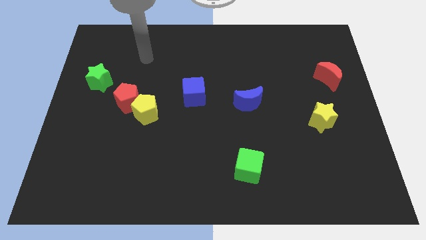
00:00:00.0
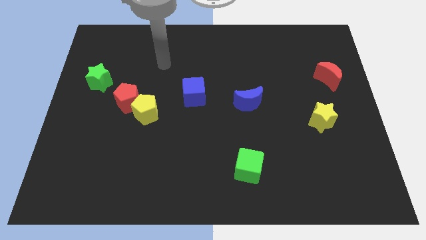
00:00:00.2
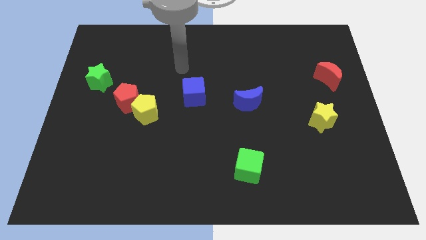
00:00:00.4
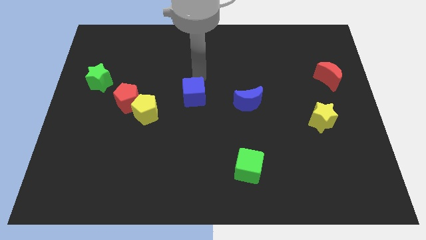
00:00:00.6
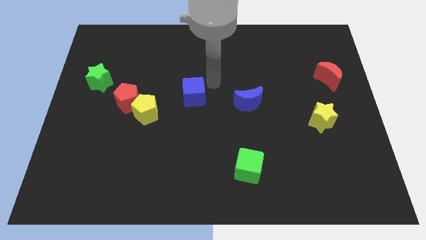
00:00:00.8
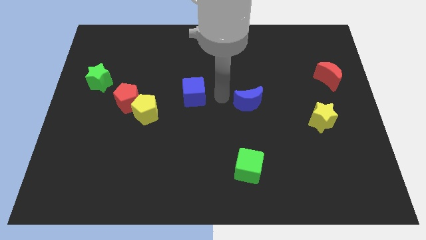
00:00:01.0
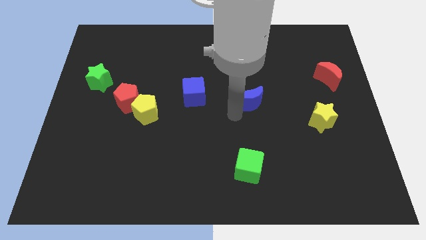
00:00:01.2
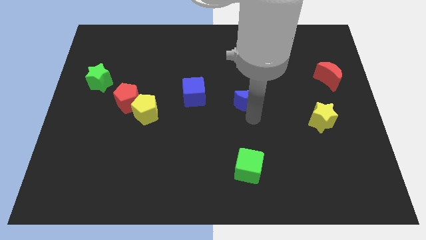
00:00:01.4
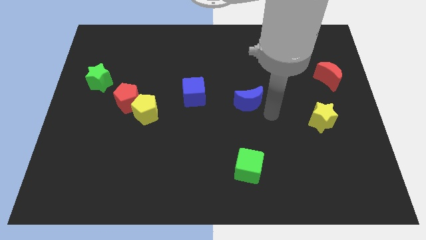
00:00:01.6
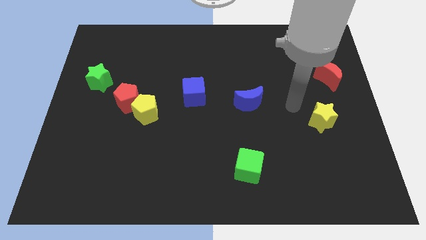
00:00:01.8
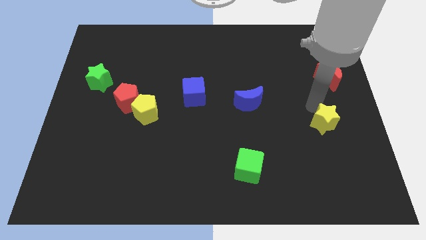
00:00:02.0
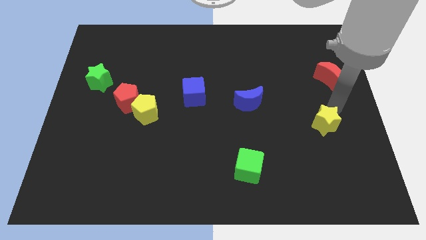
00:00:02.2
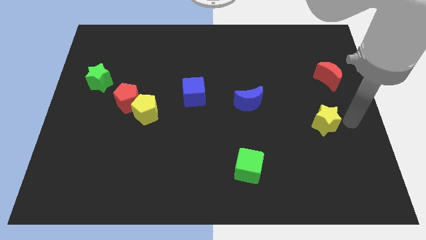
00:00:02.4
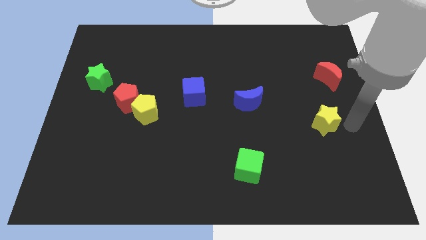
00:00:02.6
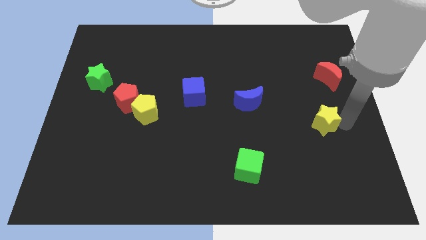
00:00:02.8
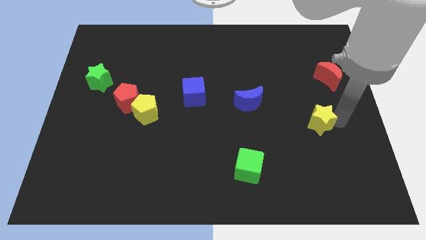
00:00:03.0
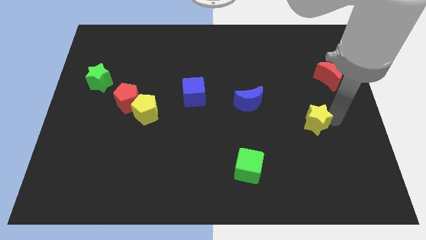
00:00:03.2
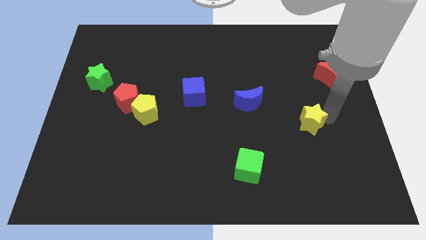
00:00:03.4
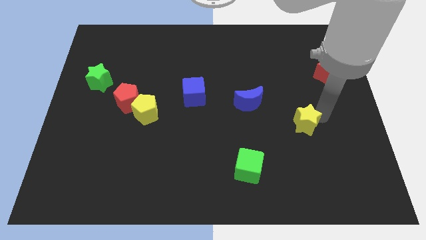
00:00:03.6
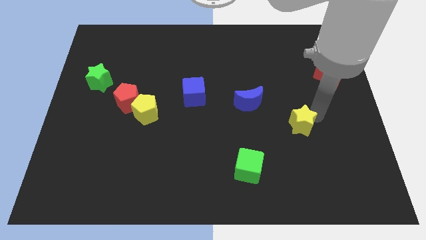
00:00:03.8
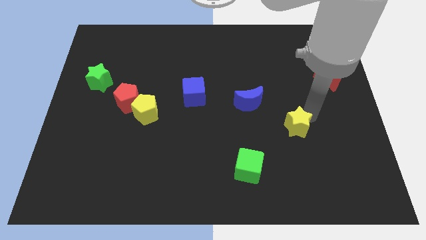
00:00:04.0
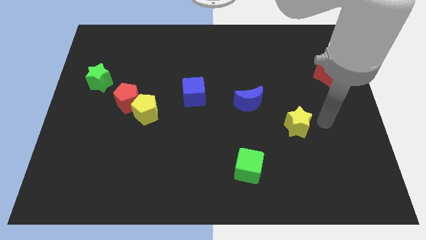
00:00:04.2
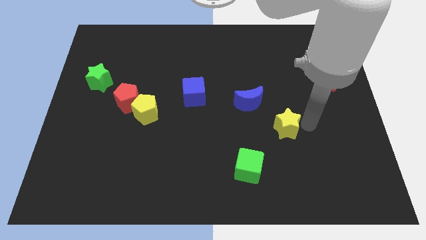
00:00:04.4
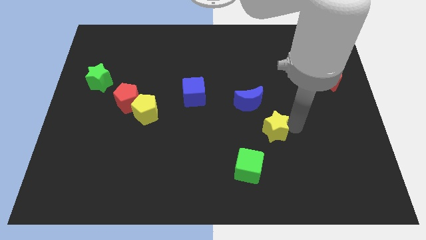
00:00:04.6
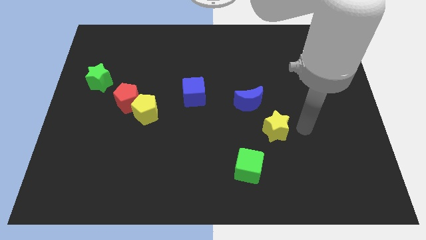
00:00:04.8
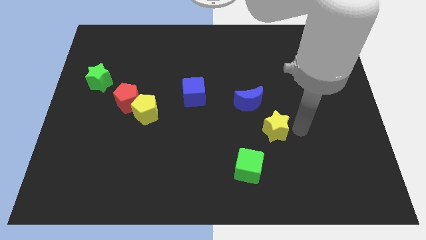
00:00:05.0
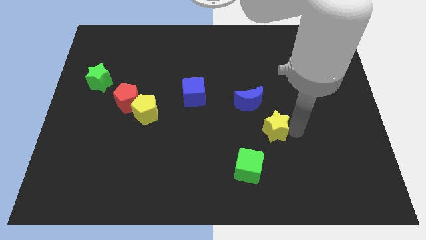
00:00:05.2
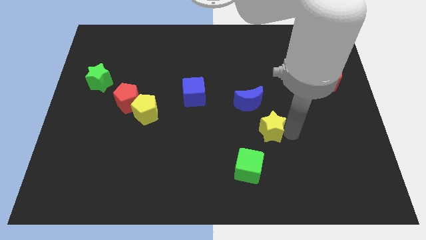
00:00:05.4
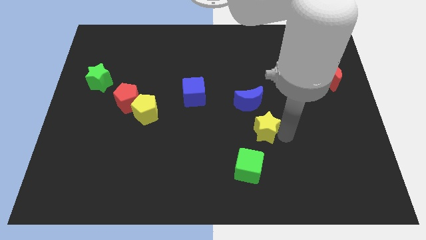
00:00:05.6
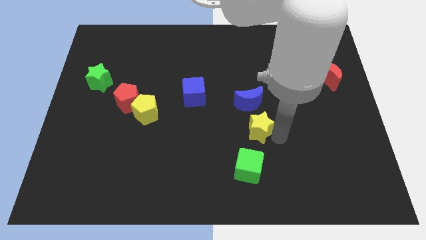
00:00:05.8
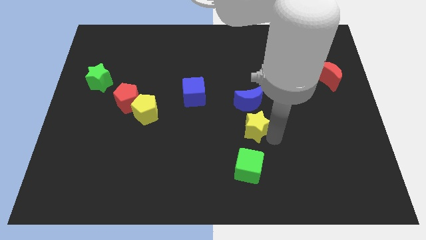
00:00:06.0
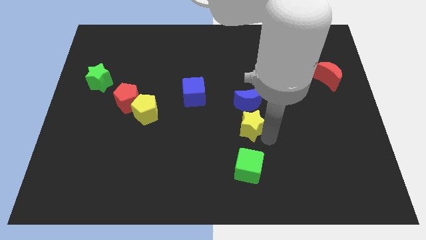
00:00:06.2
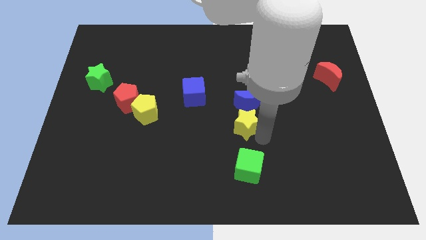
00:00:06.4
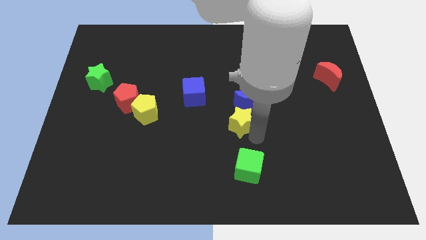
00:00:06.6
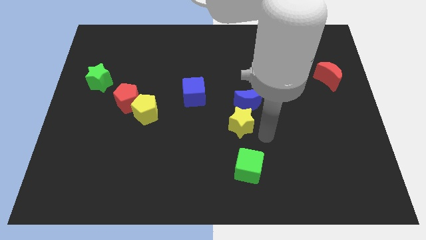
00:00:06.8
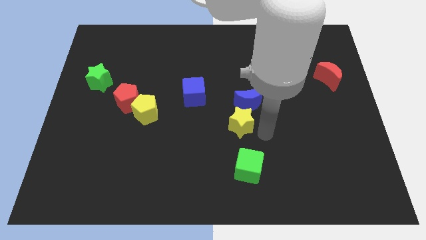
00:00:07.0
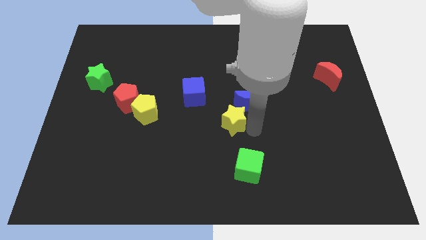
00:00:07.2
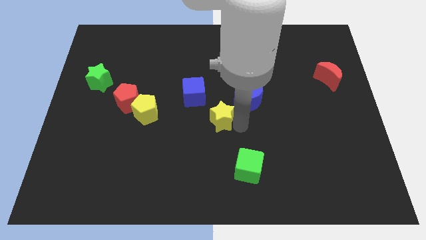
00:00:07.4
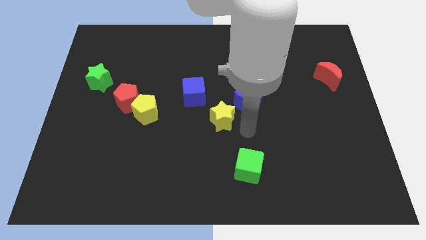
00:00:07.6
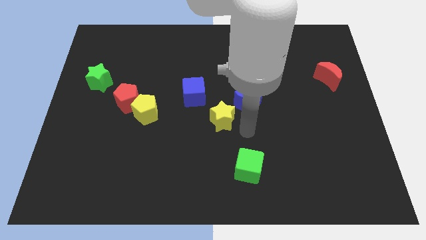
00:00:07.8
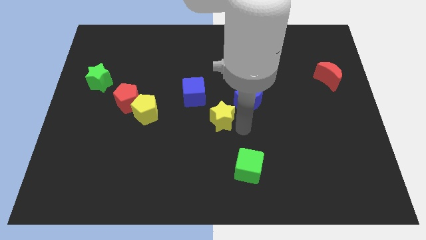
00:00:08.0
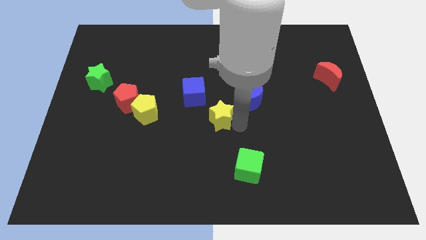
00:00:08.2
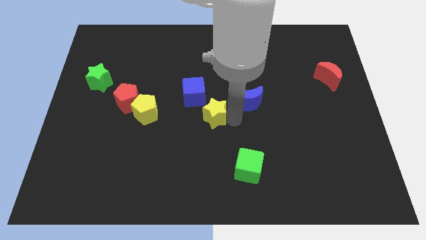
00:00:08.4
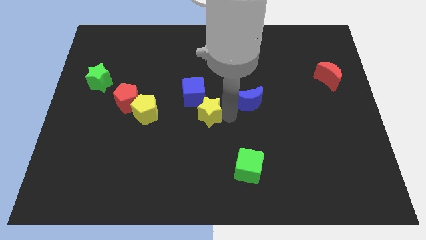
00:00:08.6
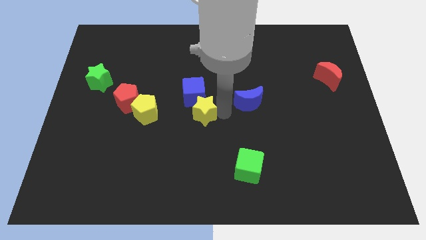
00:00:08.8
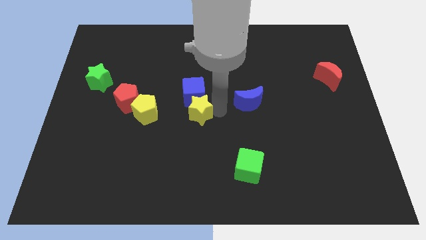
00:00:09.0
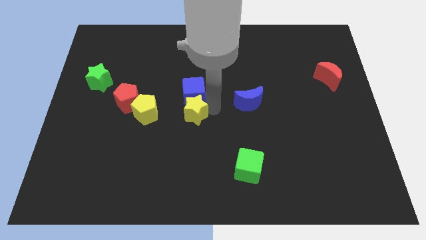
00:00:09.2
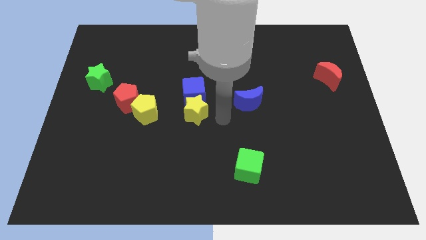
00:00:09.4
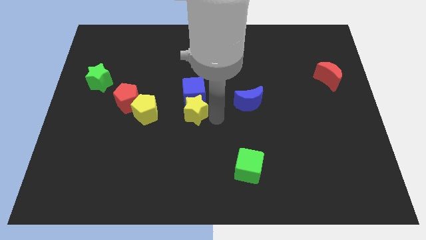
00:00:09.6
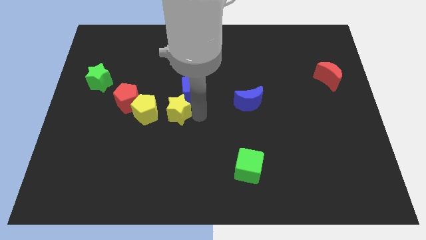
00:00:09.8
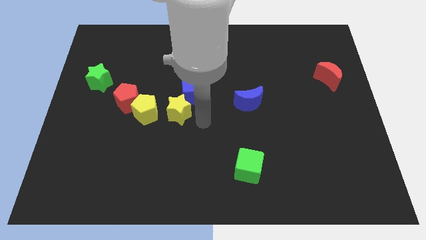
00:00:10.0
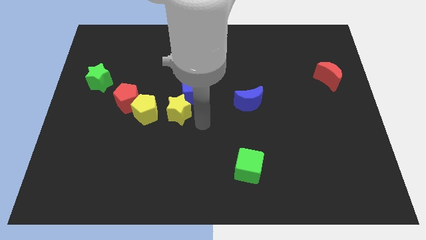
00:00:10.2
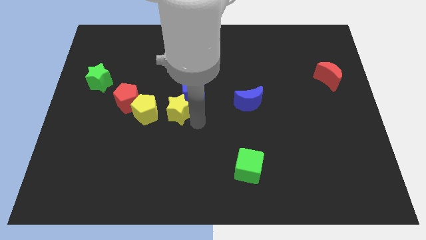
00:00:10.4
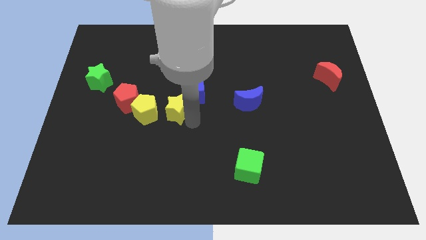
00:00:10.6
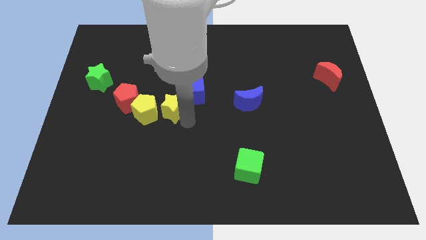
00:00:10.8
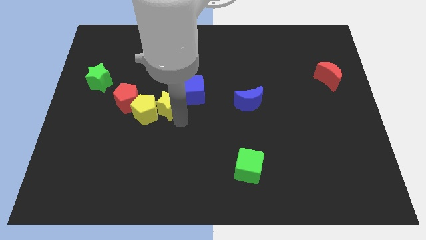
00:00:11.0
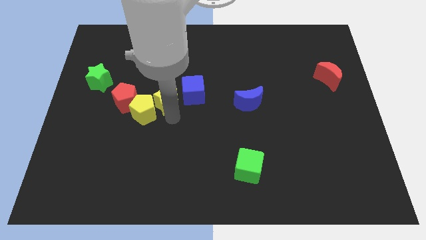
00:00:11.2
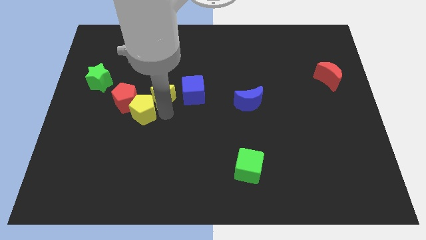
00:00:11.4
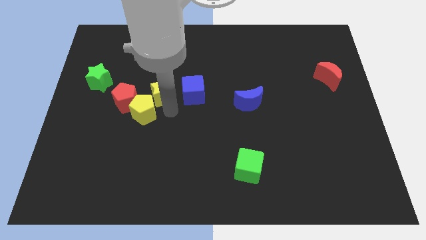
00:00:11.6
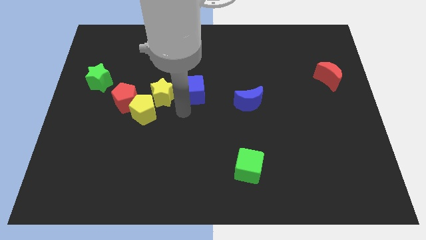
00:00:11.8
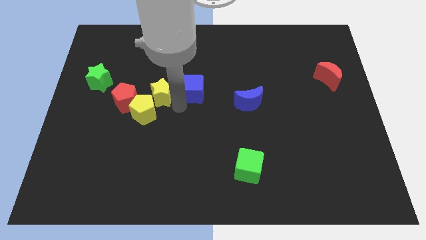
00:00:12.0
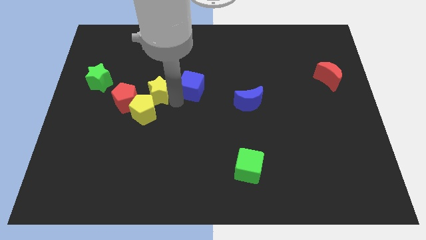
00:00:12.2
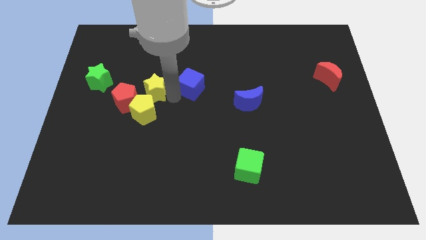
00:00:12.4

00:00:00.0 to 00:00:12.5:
put the yellow star right of the green star

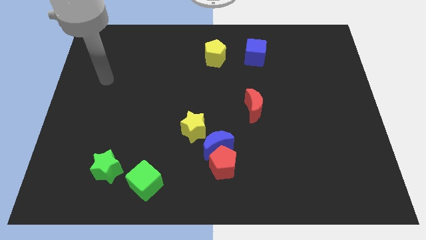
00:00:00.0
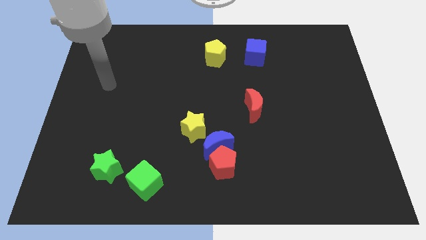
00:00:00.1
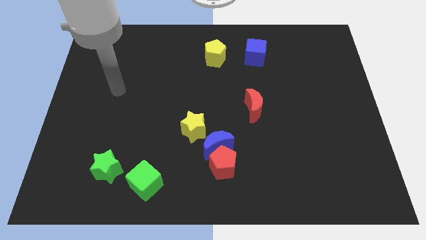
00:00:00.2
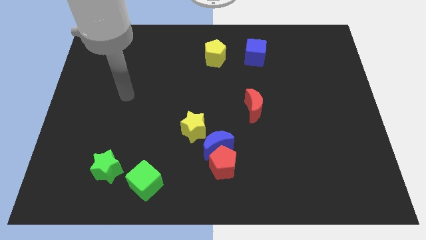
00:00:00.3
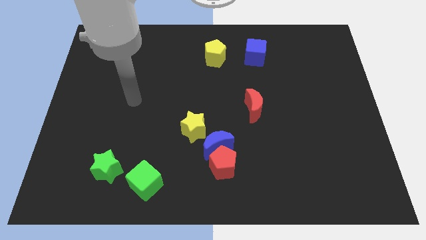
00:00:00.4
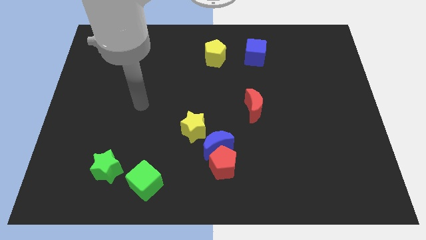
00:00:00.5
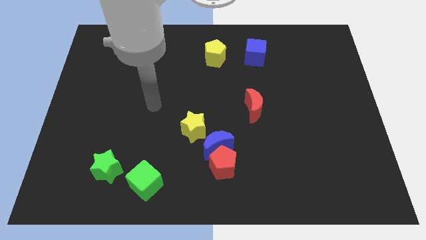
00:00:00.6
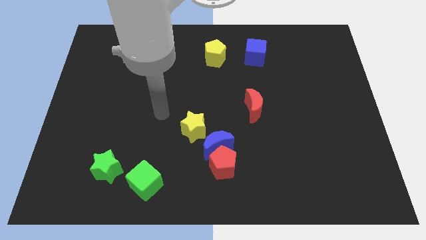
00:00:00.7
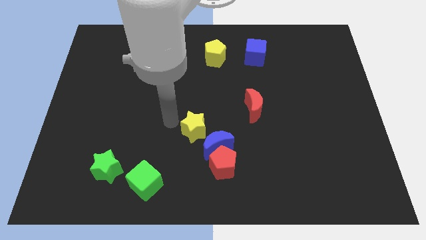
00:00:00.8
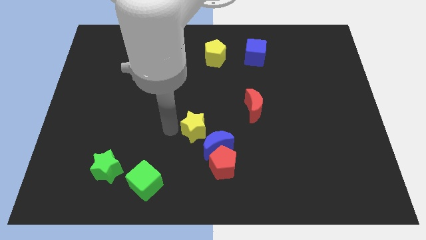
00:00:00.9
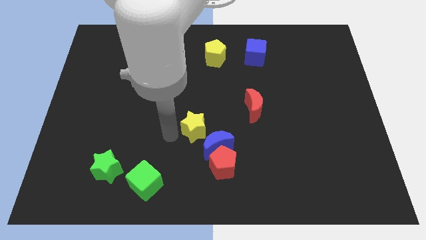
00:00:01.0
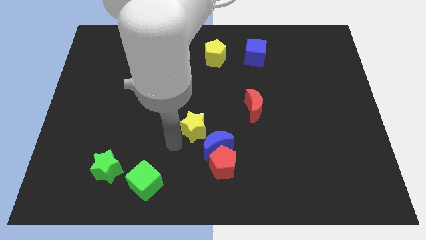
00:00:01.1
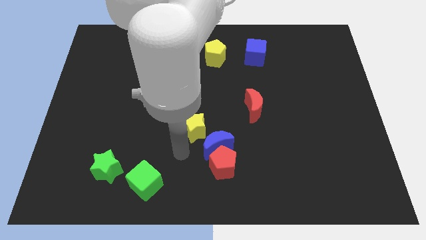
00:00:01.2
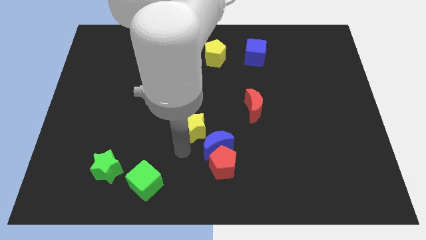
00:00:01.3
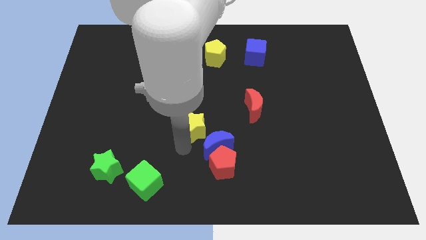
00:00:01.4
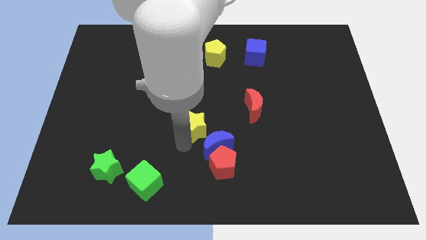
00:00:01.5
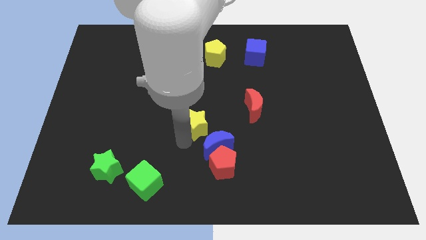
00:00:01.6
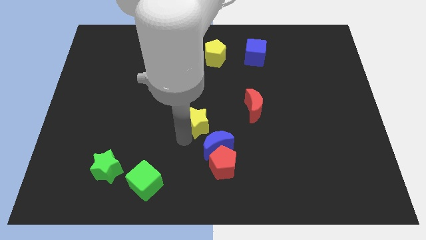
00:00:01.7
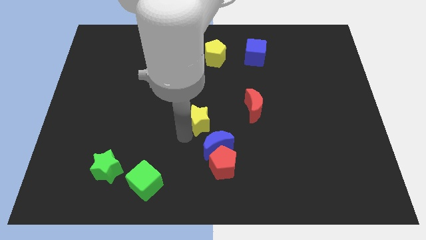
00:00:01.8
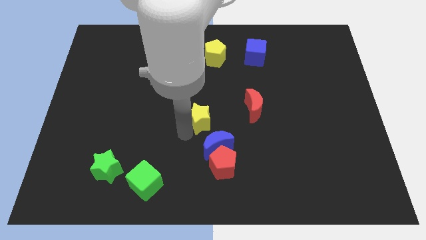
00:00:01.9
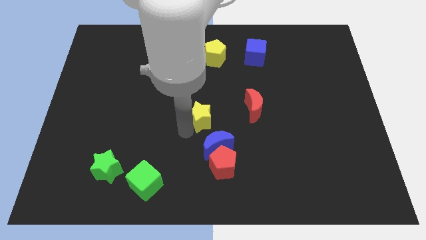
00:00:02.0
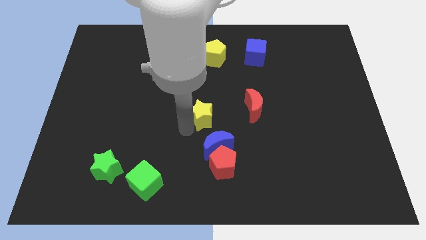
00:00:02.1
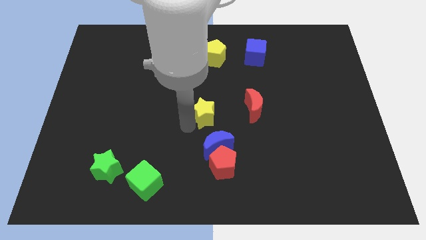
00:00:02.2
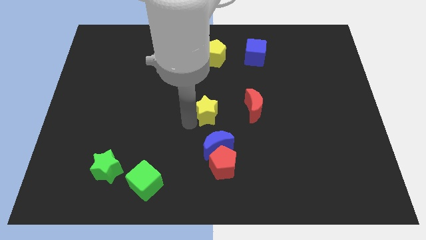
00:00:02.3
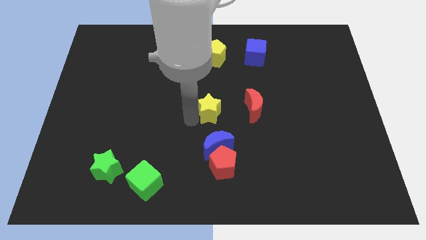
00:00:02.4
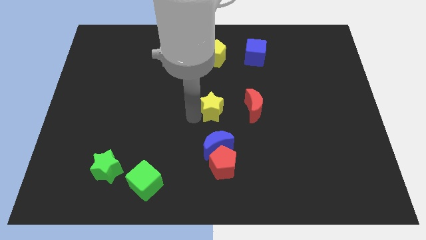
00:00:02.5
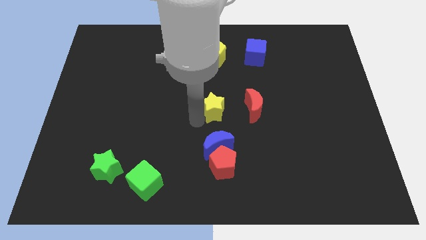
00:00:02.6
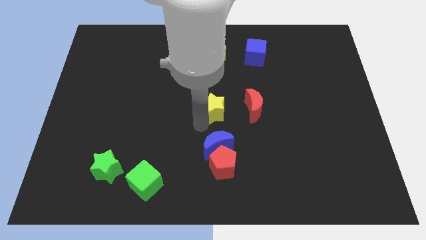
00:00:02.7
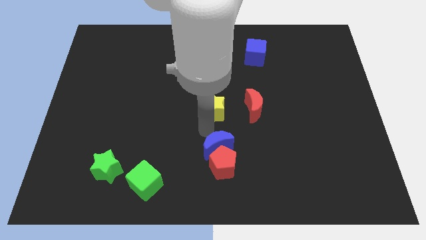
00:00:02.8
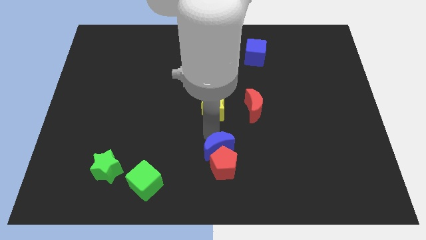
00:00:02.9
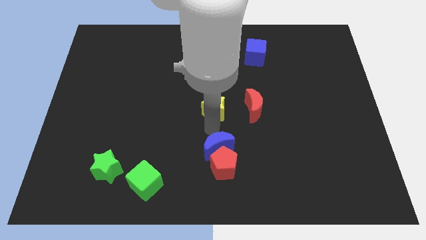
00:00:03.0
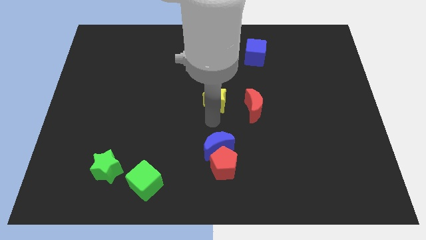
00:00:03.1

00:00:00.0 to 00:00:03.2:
move the yellow star below the yellow pentagon
